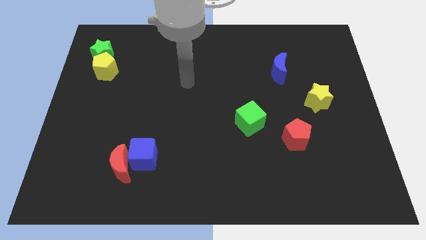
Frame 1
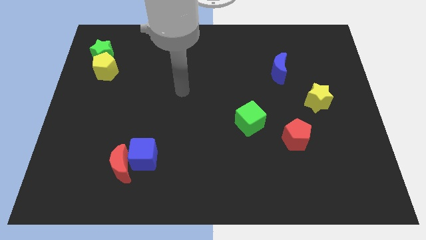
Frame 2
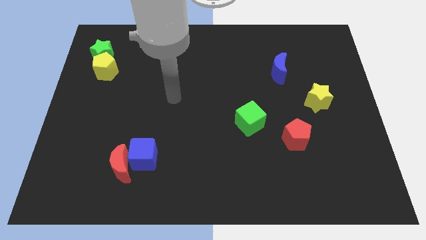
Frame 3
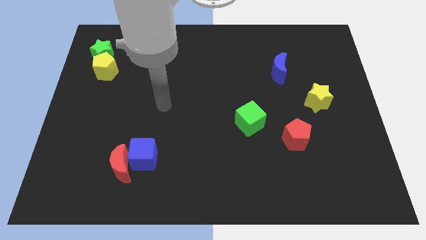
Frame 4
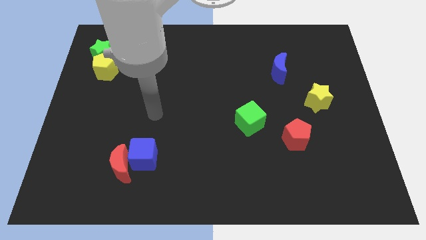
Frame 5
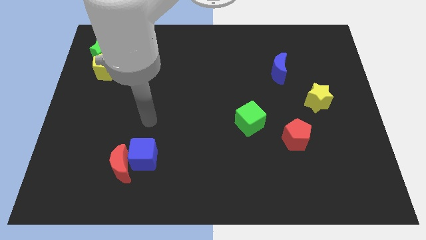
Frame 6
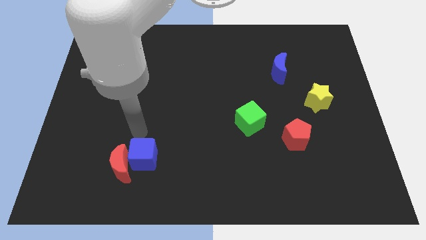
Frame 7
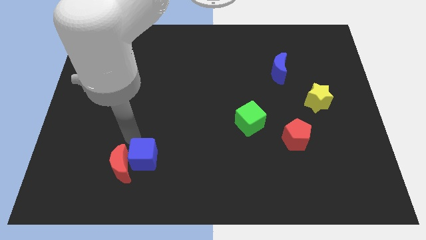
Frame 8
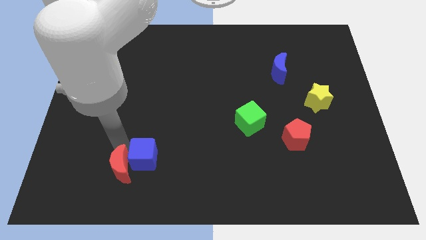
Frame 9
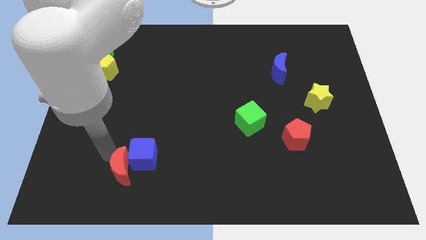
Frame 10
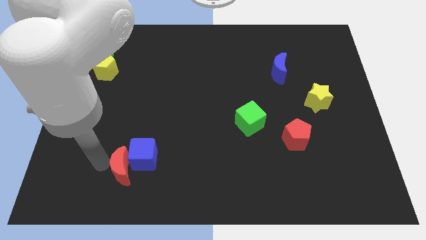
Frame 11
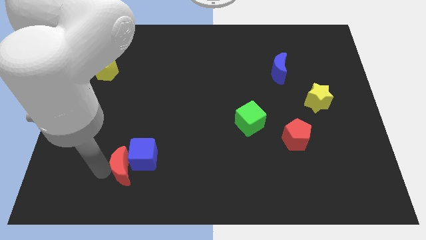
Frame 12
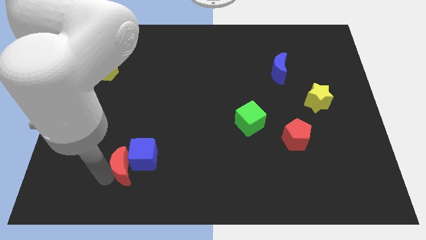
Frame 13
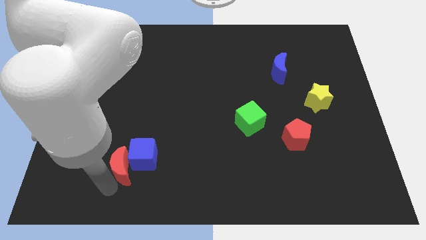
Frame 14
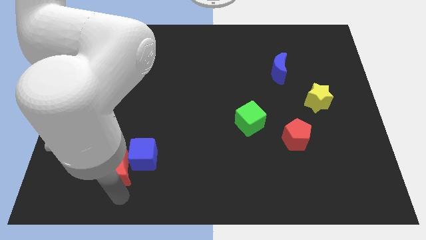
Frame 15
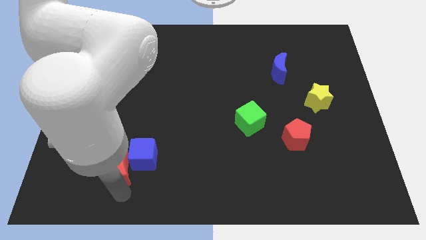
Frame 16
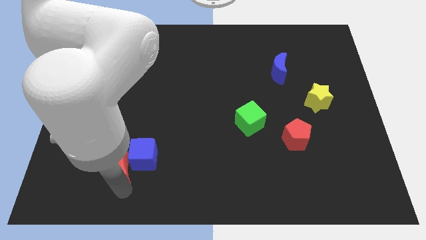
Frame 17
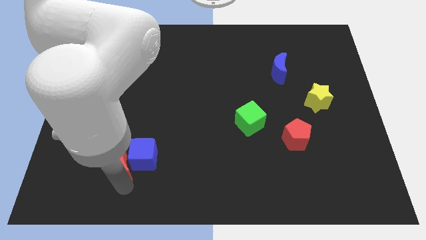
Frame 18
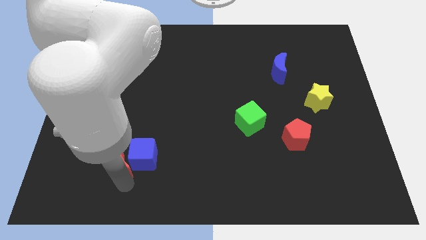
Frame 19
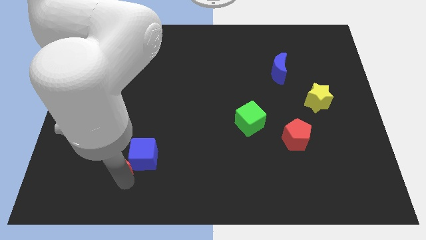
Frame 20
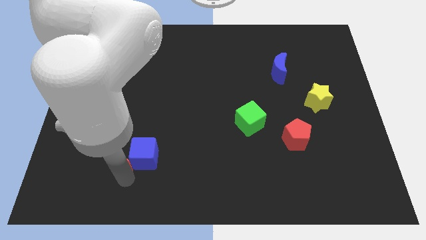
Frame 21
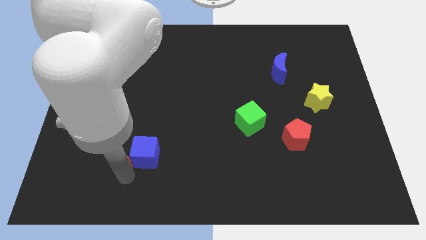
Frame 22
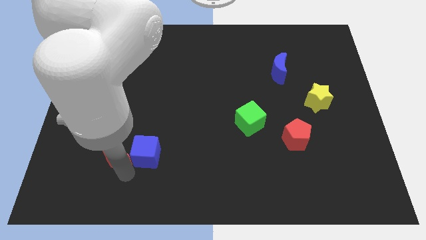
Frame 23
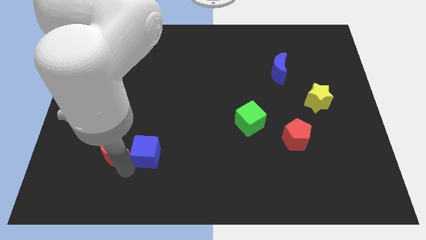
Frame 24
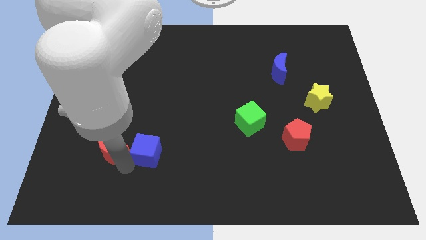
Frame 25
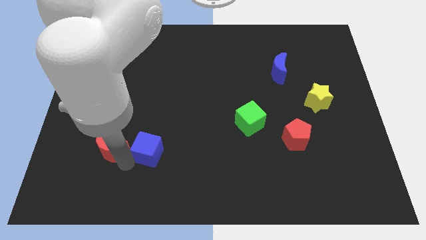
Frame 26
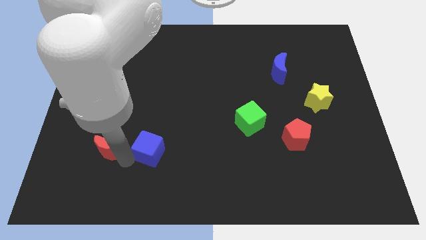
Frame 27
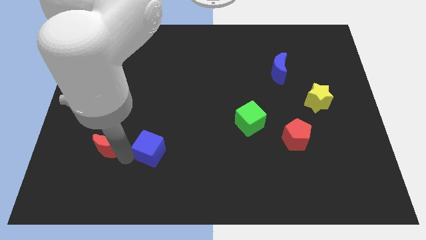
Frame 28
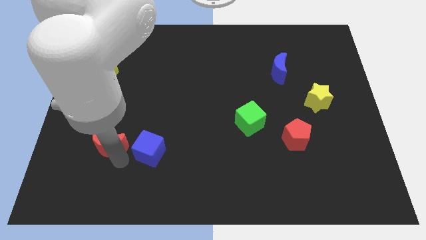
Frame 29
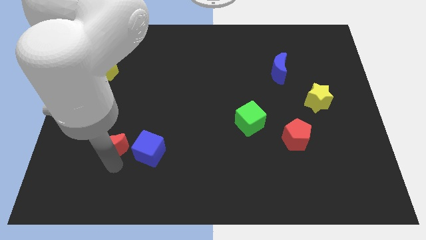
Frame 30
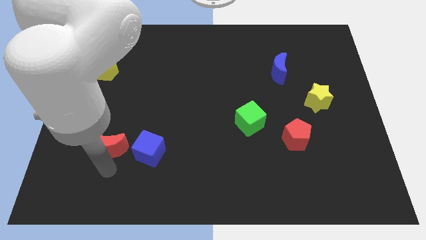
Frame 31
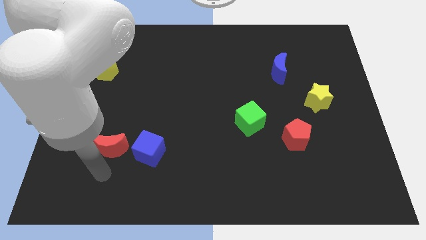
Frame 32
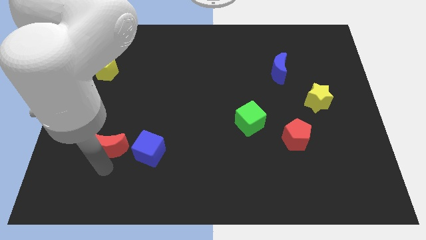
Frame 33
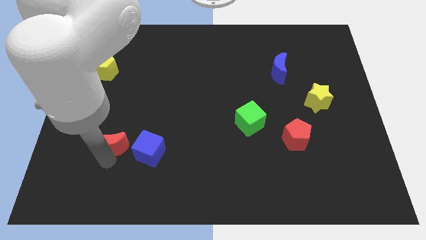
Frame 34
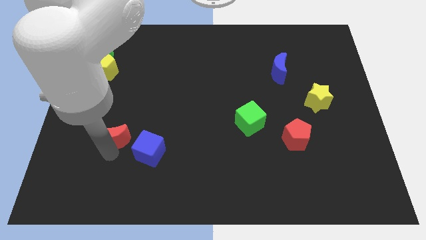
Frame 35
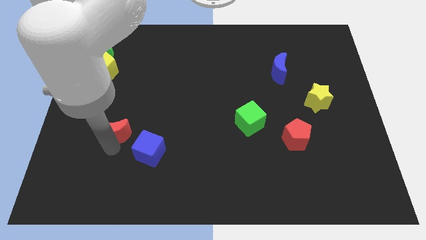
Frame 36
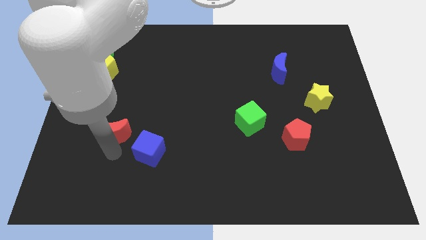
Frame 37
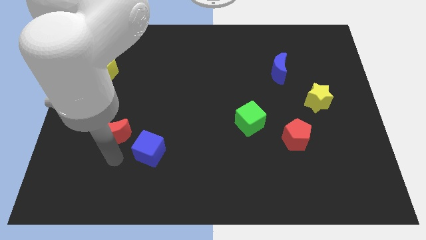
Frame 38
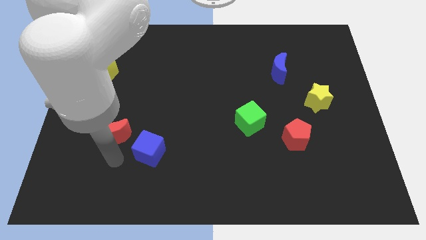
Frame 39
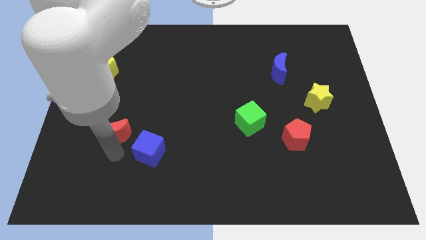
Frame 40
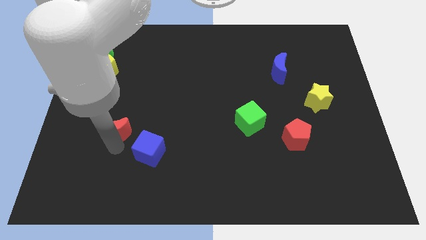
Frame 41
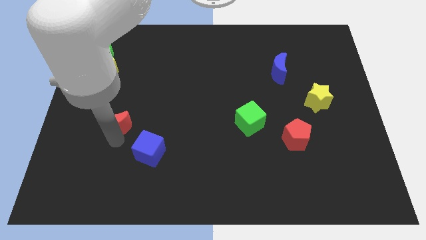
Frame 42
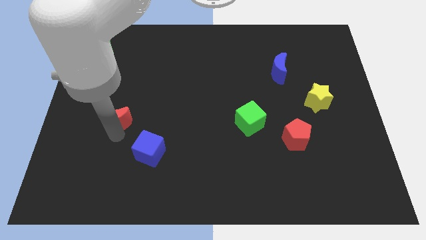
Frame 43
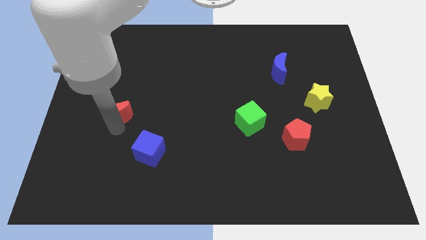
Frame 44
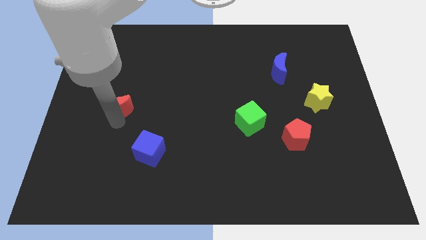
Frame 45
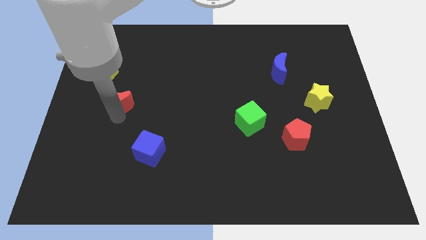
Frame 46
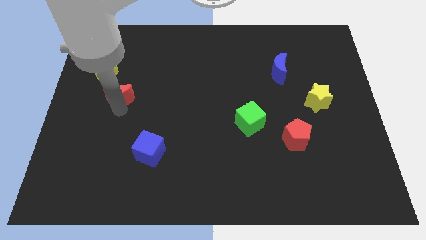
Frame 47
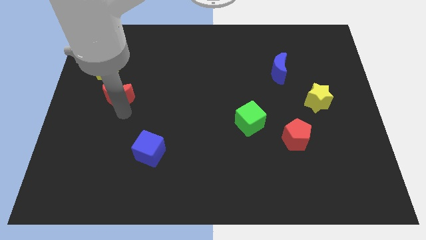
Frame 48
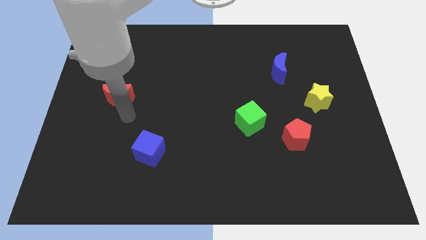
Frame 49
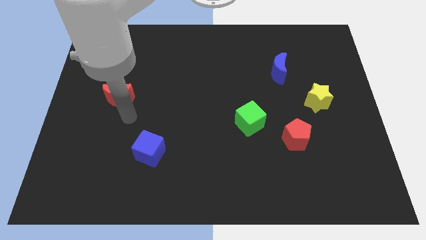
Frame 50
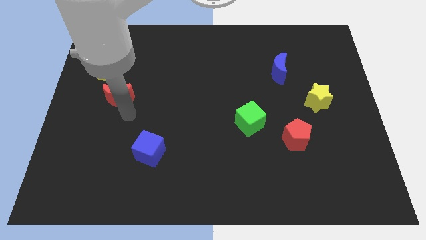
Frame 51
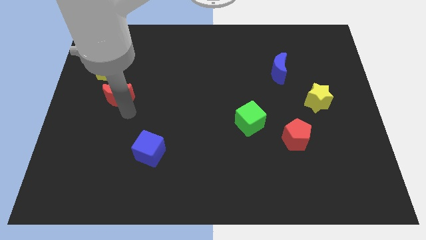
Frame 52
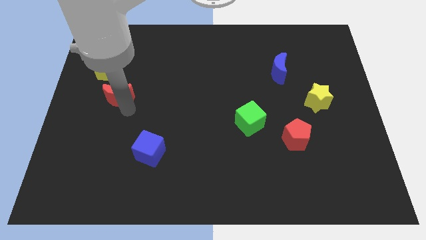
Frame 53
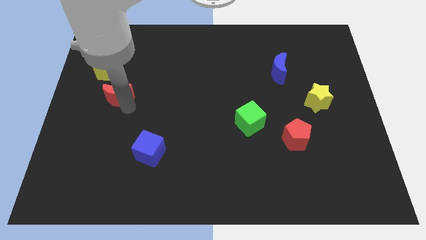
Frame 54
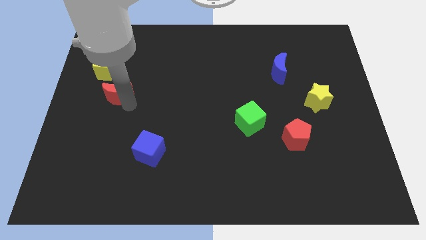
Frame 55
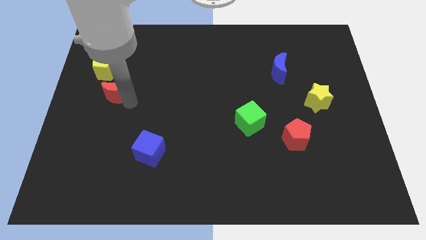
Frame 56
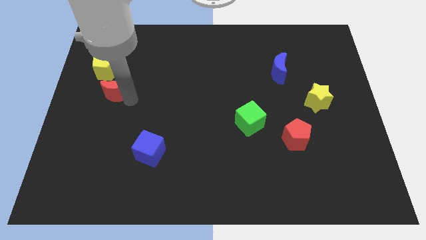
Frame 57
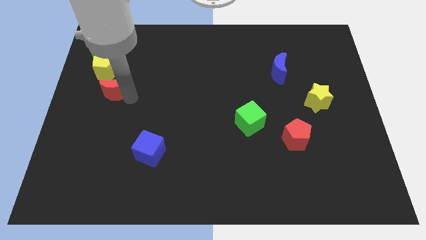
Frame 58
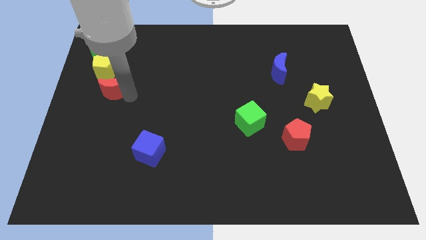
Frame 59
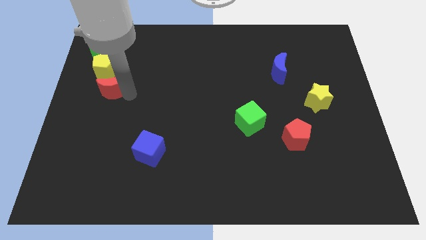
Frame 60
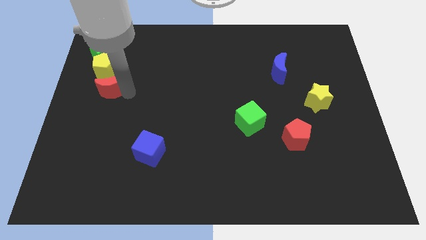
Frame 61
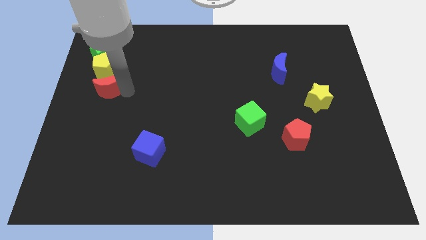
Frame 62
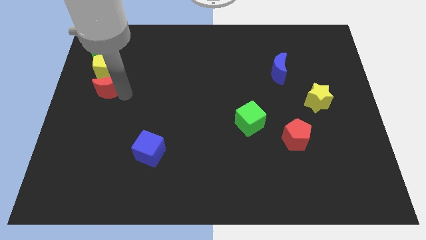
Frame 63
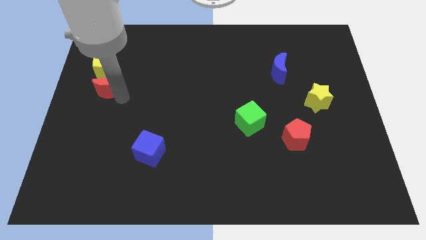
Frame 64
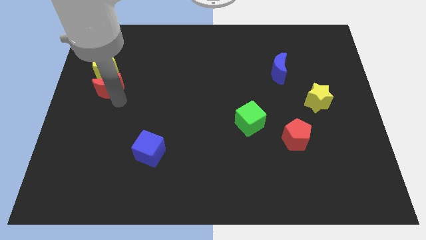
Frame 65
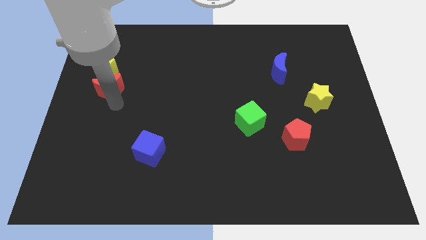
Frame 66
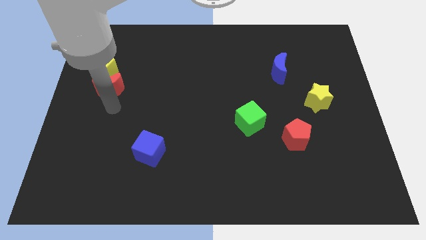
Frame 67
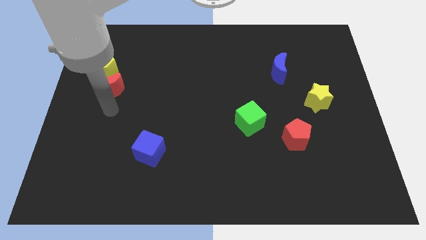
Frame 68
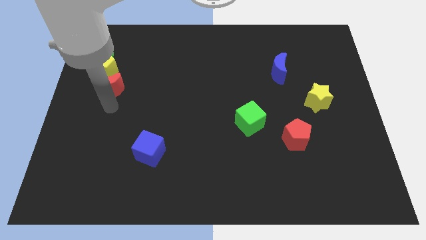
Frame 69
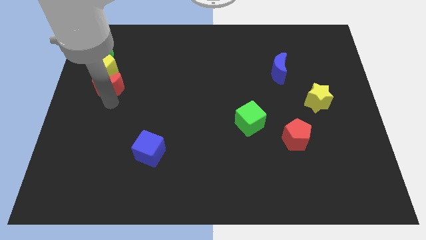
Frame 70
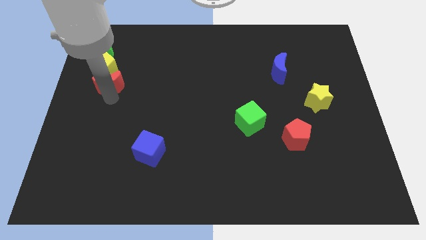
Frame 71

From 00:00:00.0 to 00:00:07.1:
push the red moon towards the yellow pentagon
